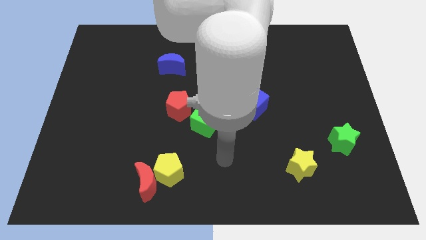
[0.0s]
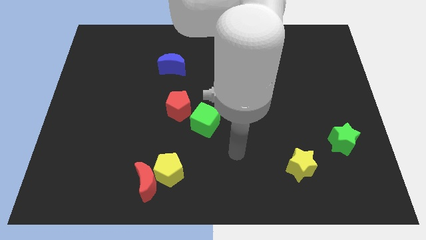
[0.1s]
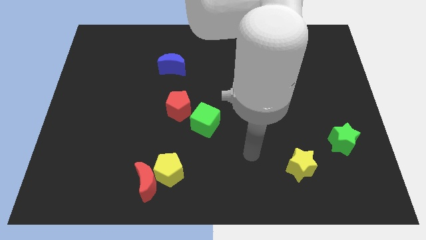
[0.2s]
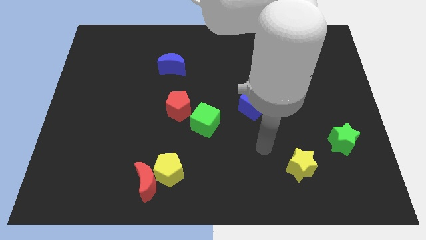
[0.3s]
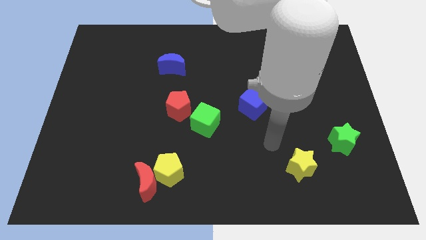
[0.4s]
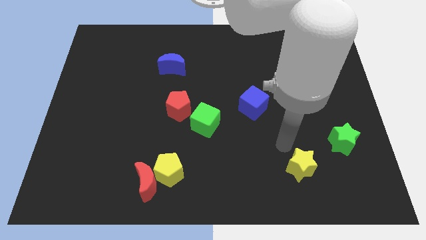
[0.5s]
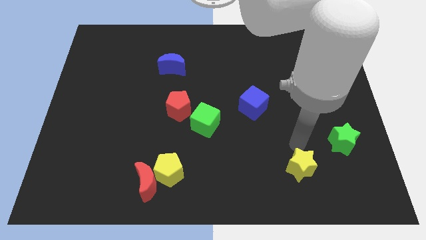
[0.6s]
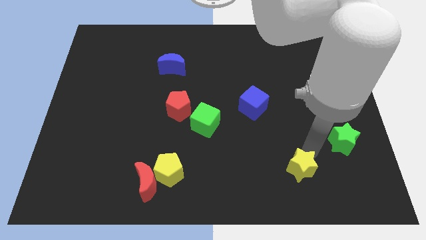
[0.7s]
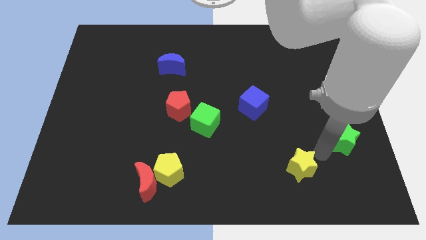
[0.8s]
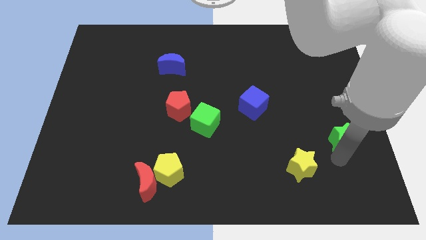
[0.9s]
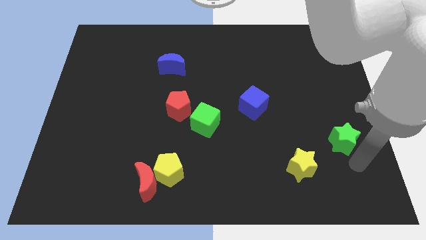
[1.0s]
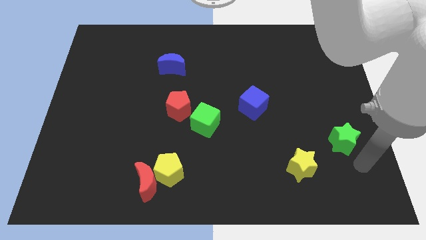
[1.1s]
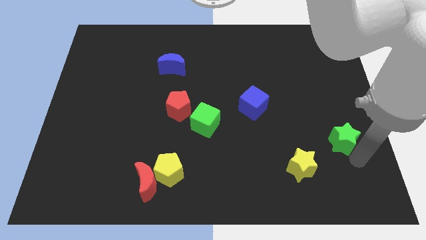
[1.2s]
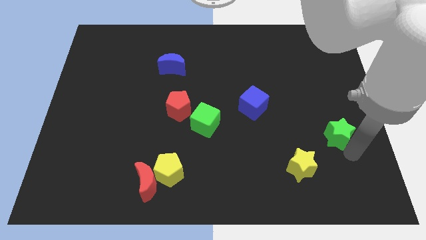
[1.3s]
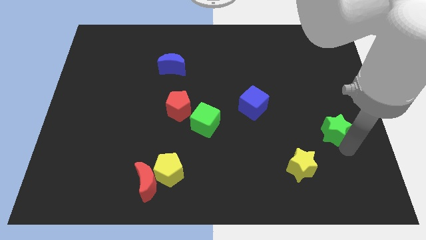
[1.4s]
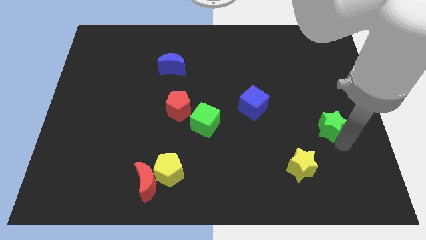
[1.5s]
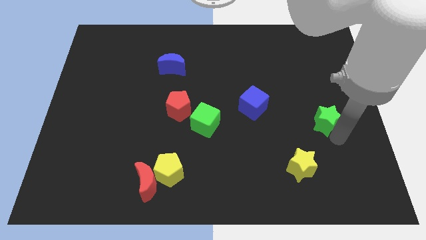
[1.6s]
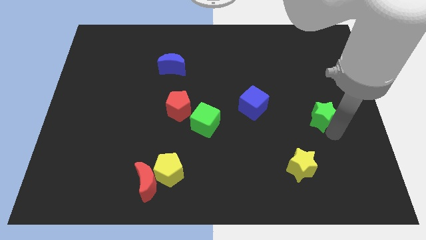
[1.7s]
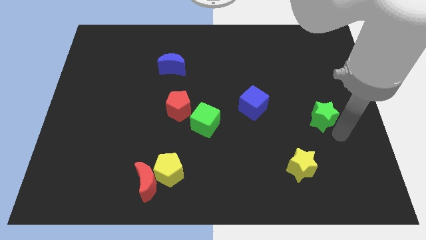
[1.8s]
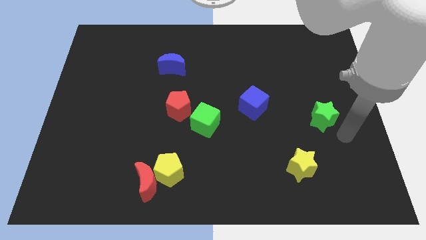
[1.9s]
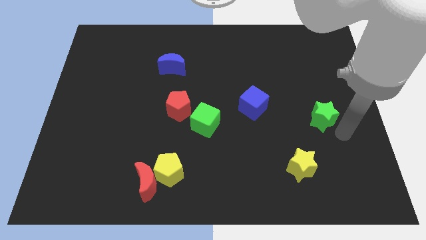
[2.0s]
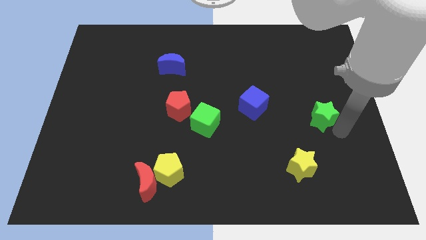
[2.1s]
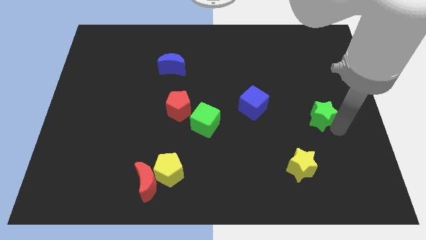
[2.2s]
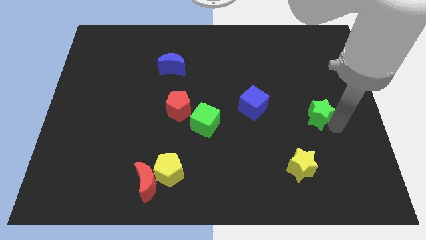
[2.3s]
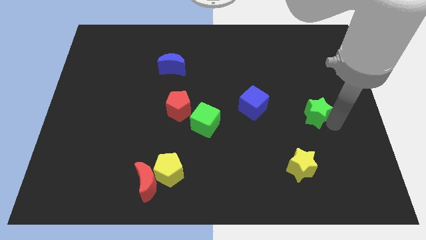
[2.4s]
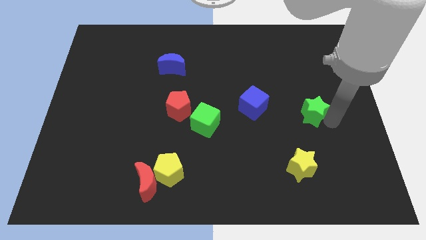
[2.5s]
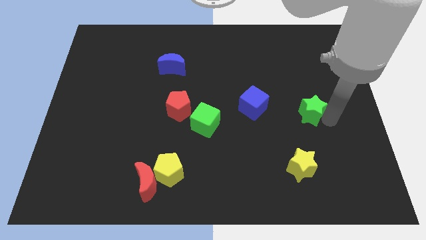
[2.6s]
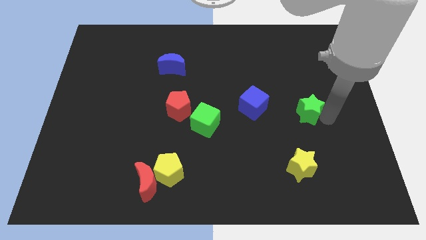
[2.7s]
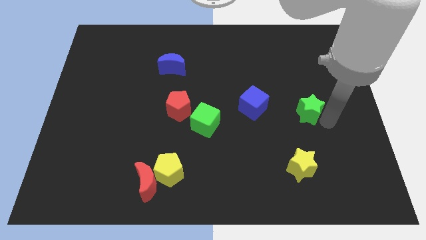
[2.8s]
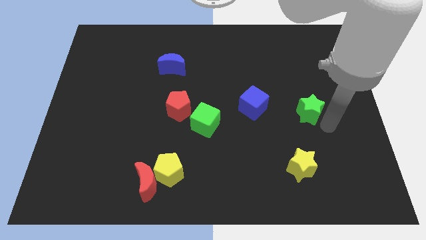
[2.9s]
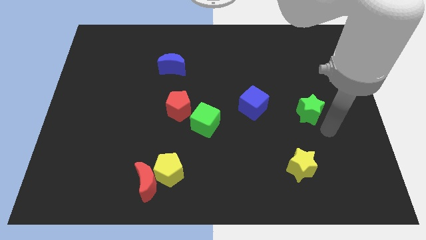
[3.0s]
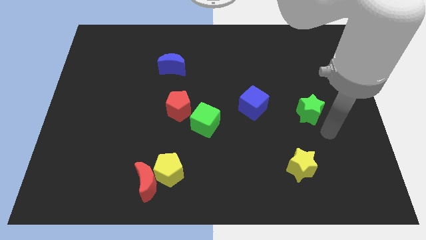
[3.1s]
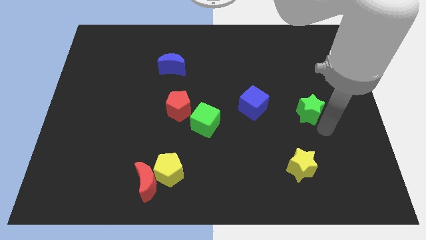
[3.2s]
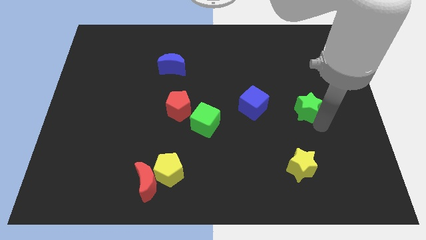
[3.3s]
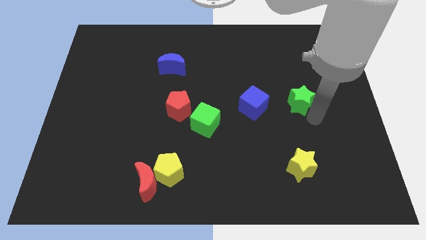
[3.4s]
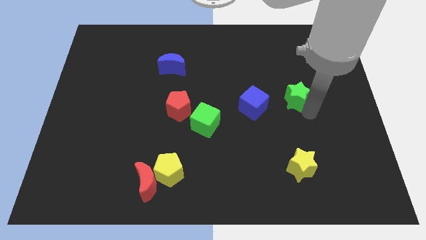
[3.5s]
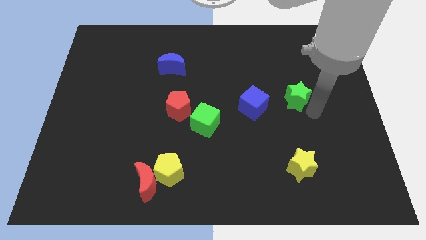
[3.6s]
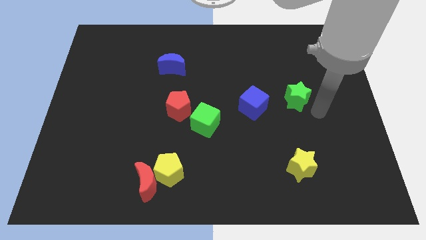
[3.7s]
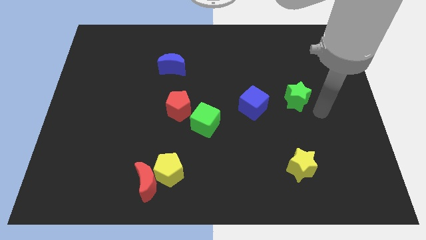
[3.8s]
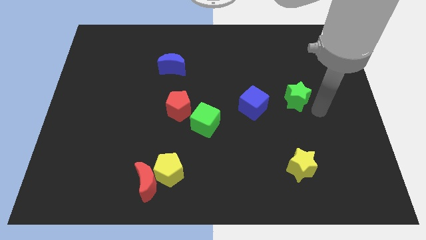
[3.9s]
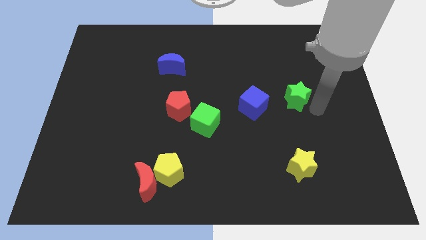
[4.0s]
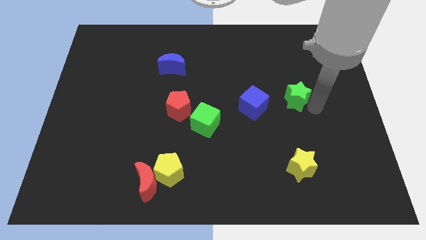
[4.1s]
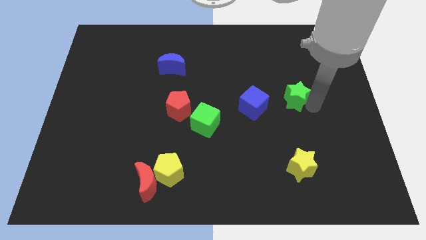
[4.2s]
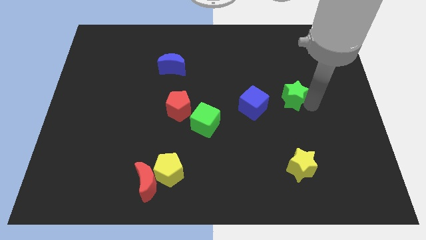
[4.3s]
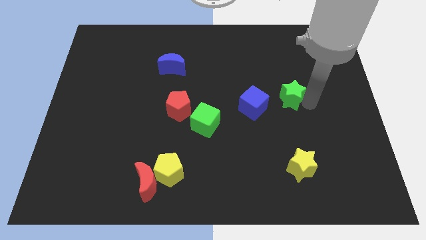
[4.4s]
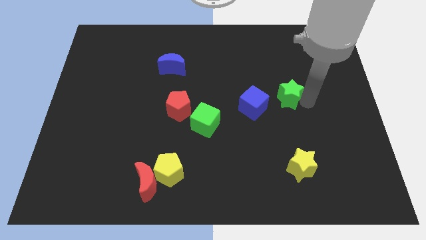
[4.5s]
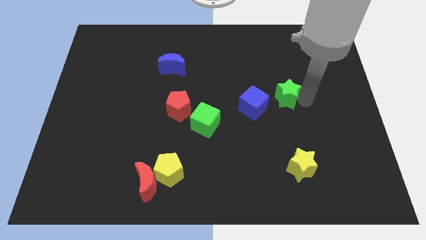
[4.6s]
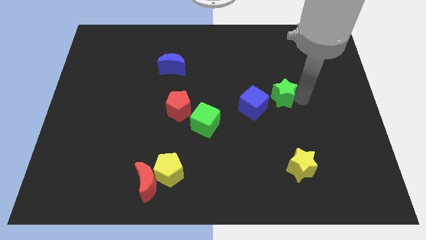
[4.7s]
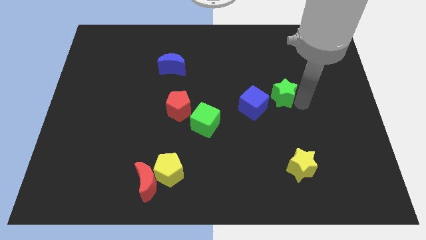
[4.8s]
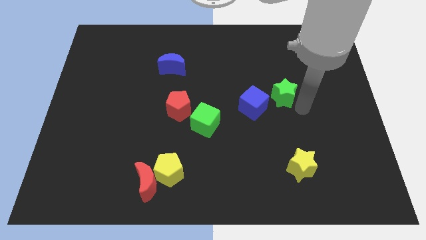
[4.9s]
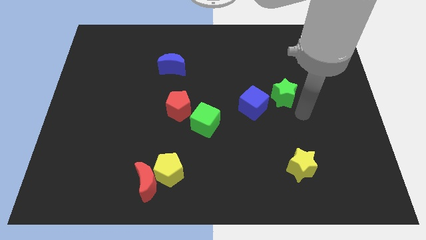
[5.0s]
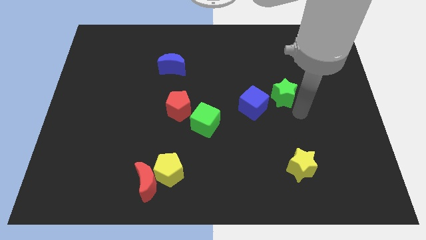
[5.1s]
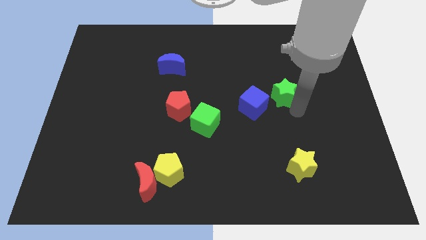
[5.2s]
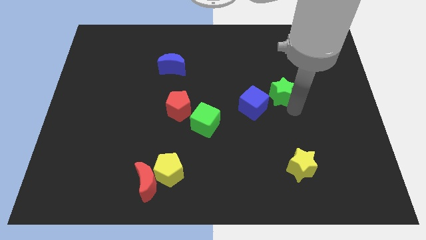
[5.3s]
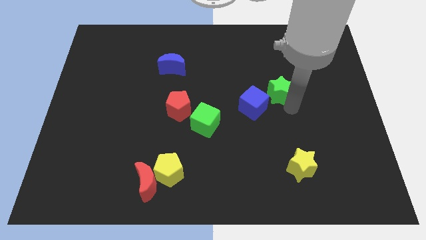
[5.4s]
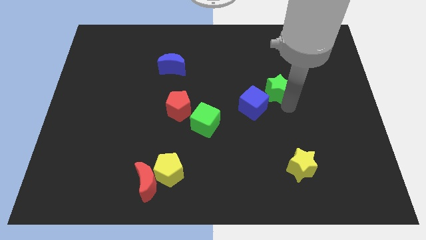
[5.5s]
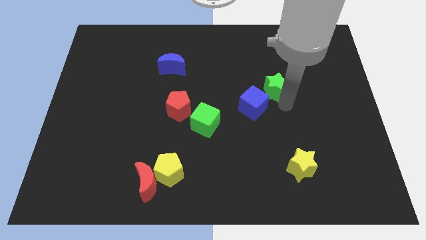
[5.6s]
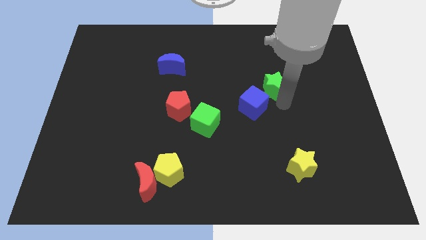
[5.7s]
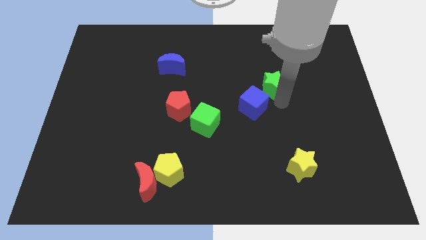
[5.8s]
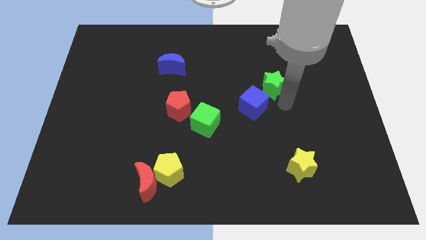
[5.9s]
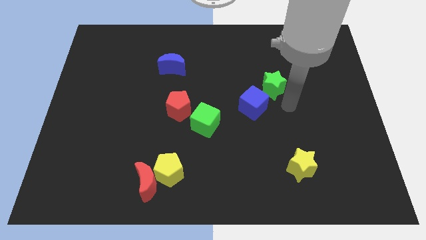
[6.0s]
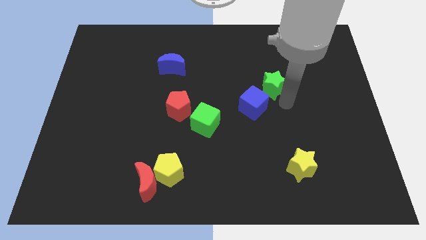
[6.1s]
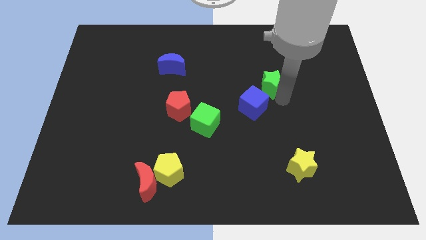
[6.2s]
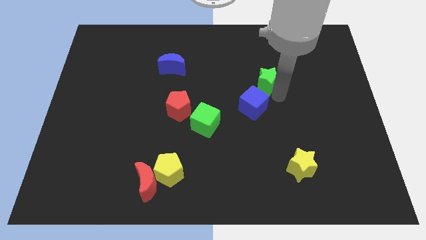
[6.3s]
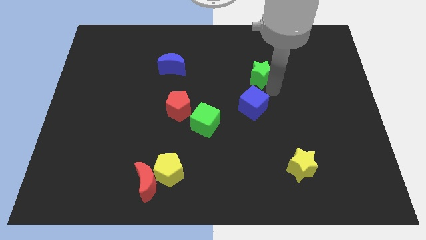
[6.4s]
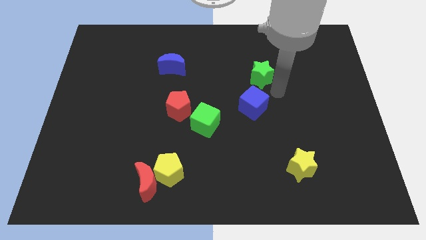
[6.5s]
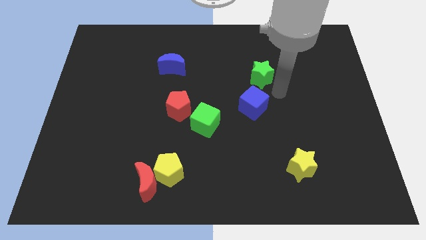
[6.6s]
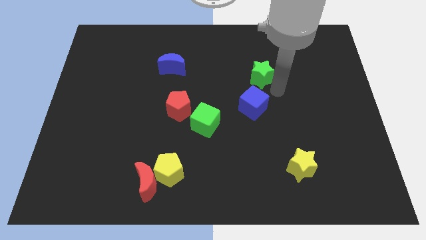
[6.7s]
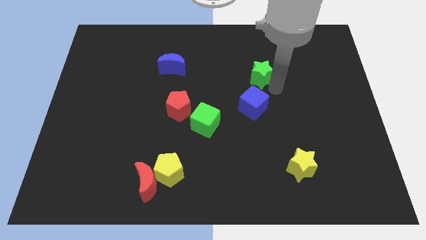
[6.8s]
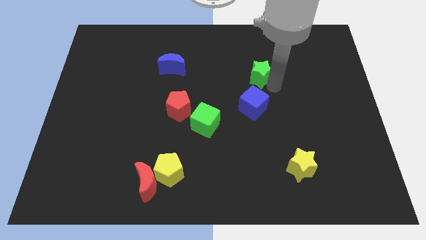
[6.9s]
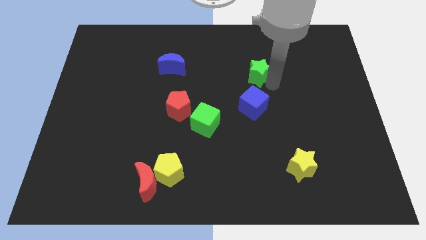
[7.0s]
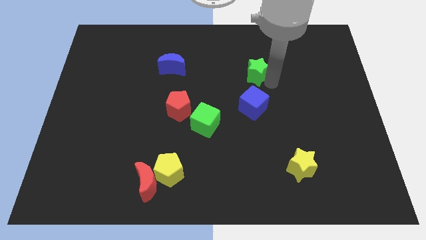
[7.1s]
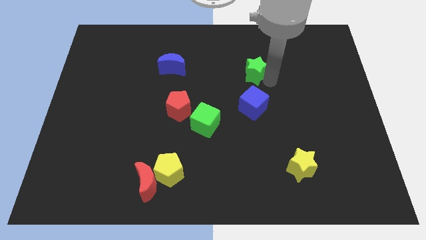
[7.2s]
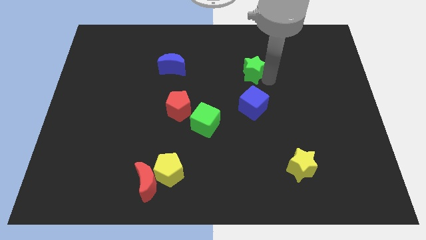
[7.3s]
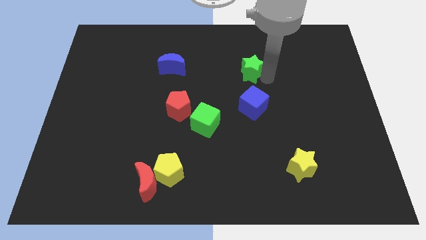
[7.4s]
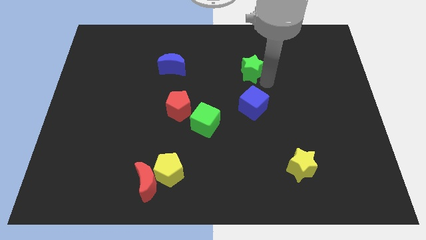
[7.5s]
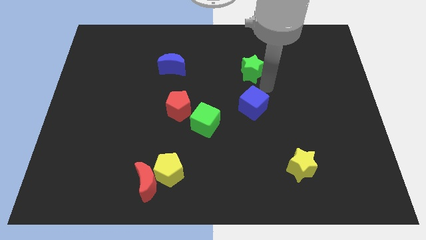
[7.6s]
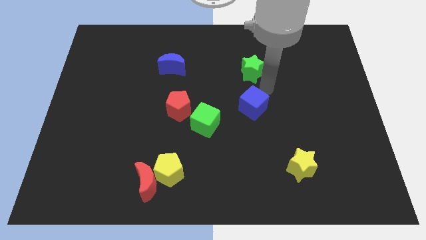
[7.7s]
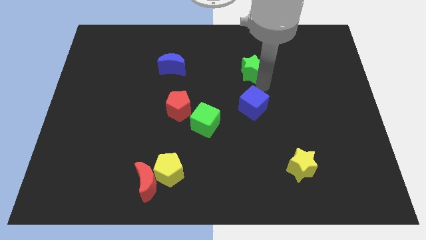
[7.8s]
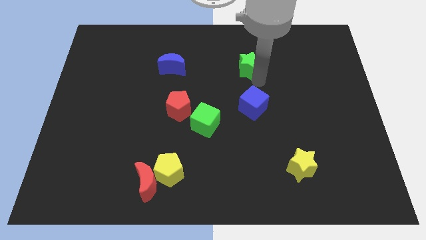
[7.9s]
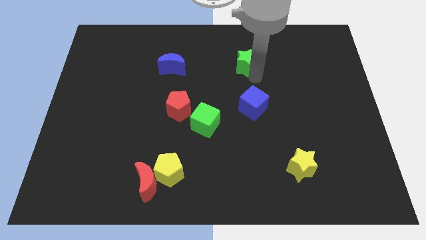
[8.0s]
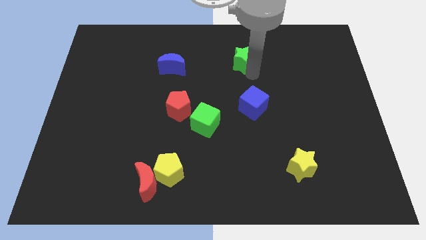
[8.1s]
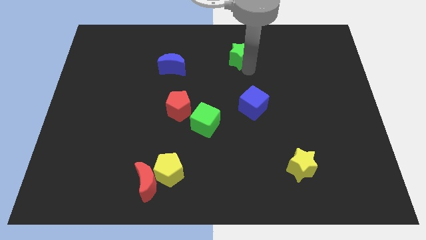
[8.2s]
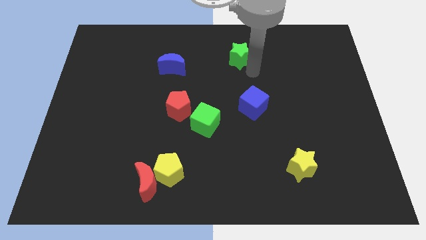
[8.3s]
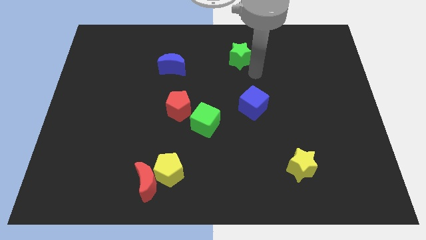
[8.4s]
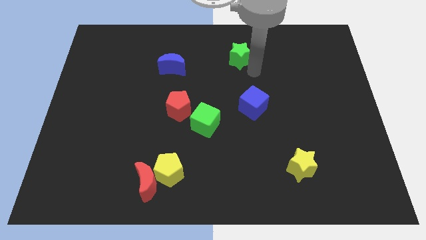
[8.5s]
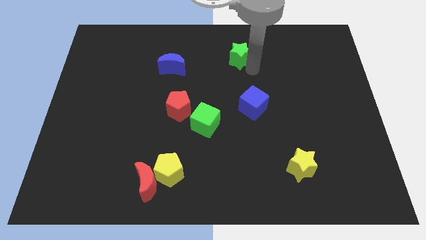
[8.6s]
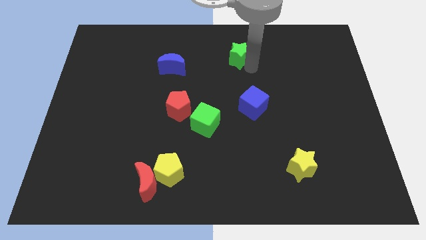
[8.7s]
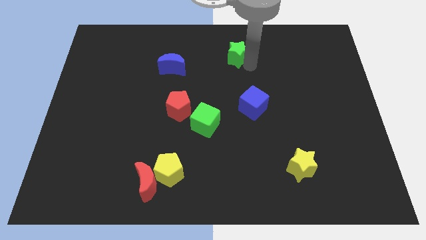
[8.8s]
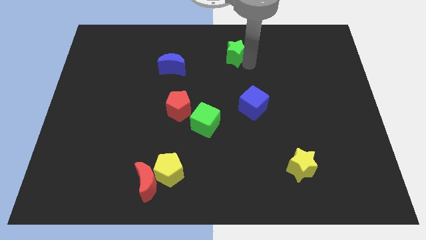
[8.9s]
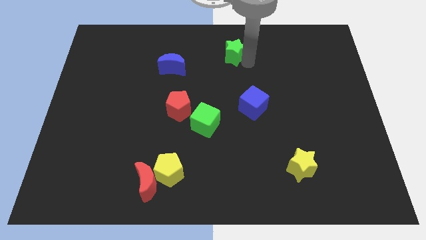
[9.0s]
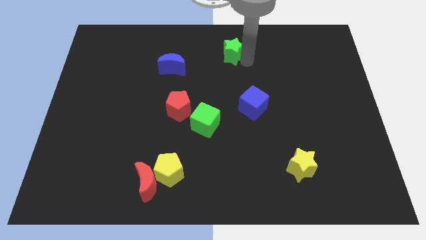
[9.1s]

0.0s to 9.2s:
put the green star to the towards your base
